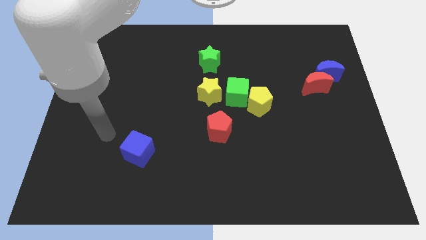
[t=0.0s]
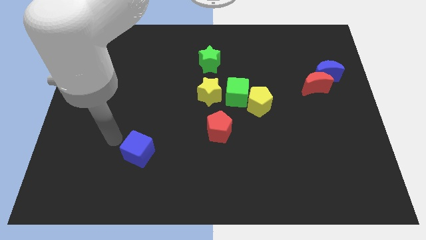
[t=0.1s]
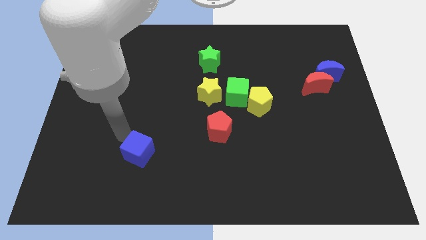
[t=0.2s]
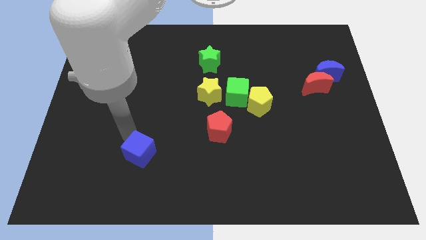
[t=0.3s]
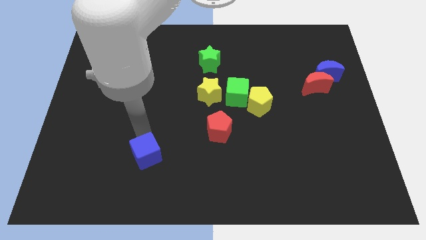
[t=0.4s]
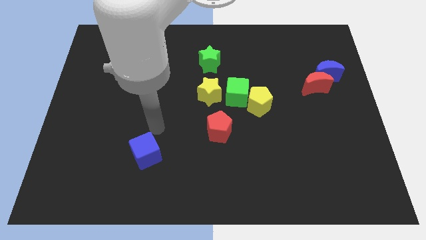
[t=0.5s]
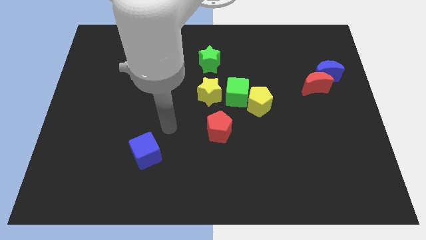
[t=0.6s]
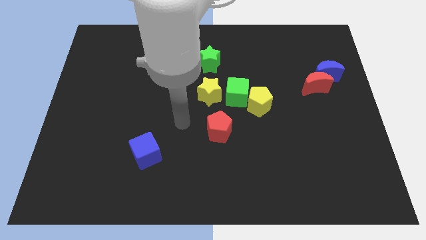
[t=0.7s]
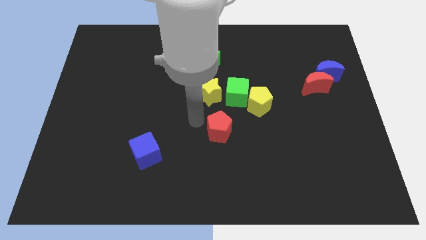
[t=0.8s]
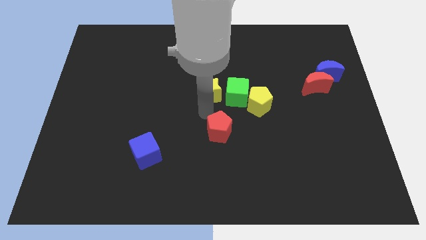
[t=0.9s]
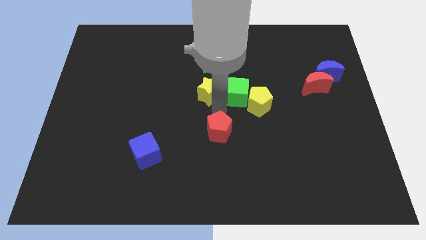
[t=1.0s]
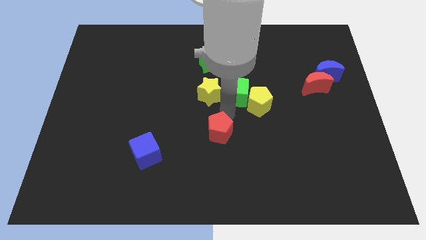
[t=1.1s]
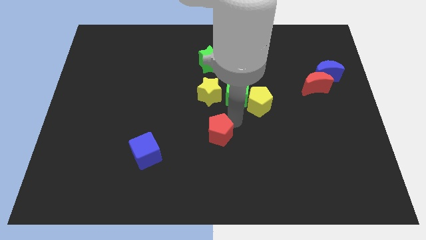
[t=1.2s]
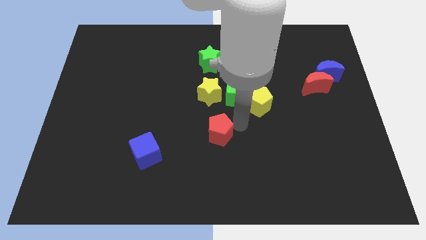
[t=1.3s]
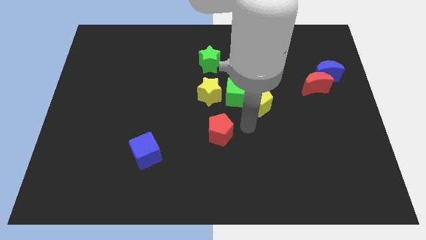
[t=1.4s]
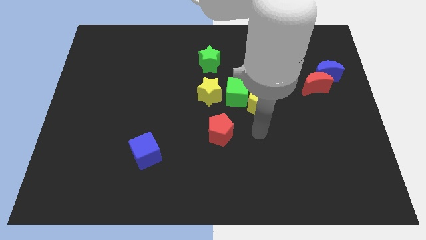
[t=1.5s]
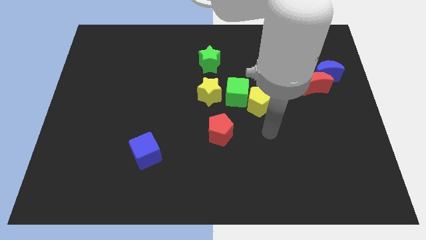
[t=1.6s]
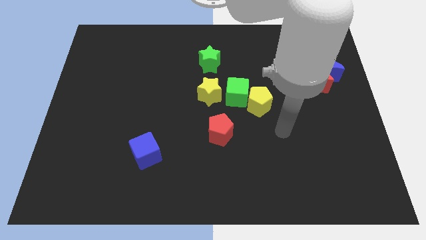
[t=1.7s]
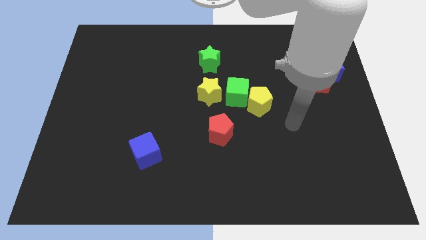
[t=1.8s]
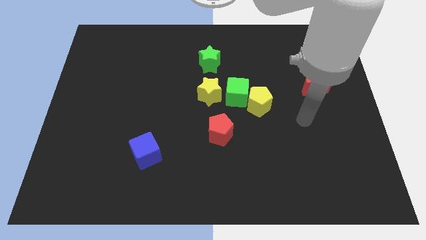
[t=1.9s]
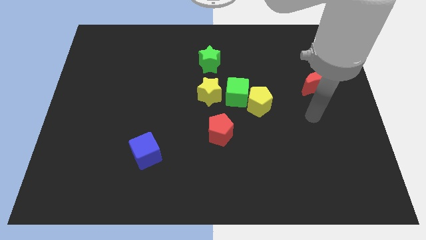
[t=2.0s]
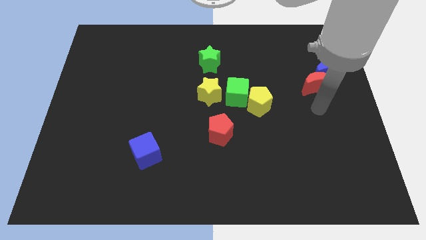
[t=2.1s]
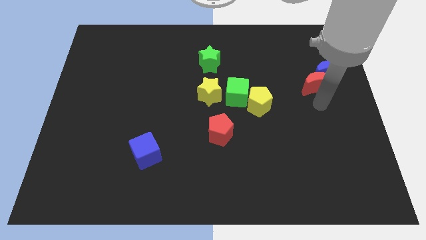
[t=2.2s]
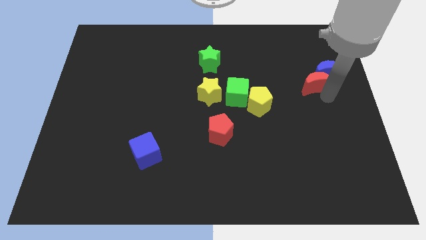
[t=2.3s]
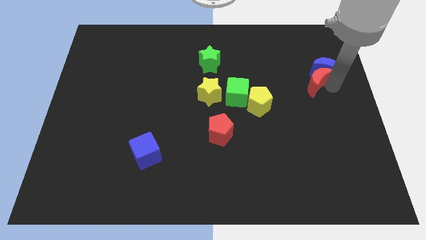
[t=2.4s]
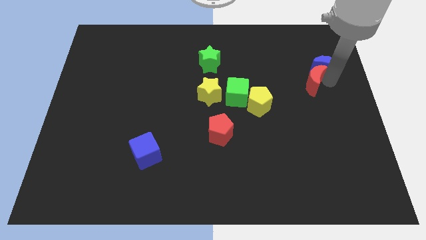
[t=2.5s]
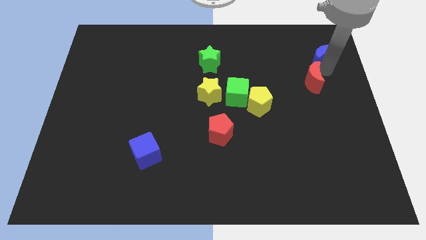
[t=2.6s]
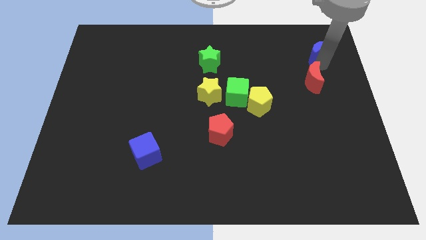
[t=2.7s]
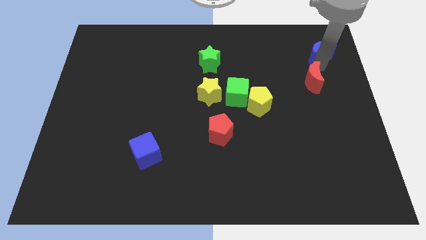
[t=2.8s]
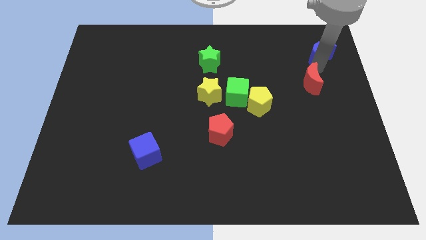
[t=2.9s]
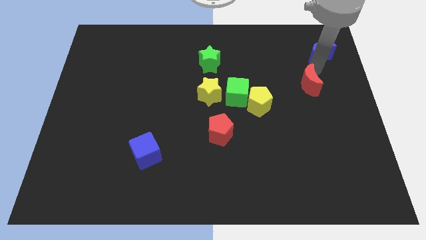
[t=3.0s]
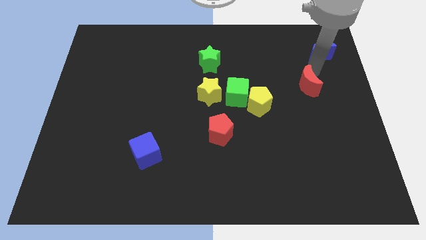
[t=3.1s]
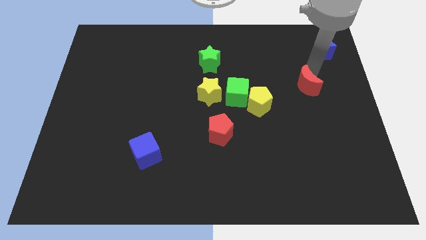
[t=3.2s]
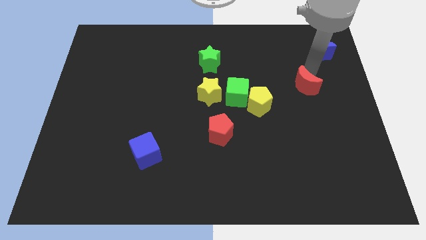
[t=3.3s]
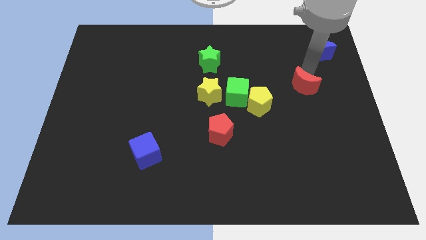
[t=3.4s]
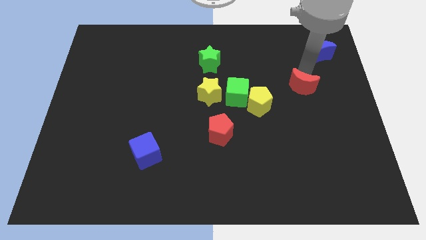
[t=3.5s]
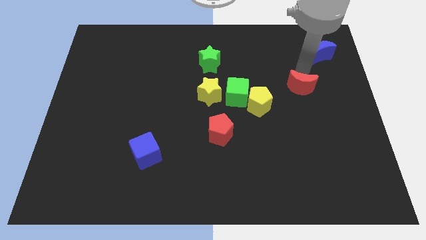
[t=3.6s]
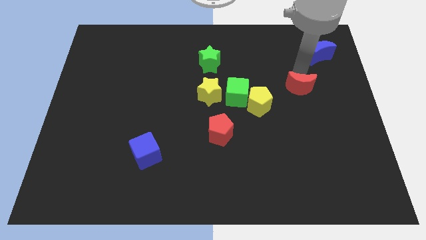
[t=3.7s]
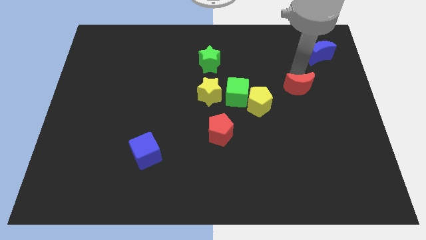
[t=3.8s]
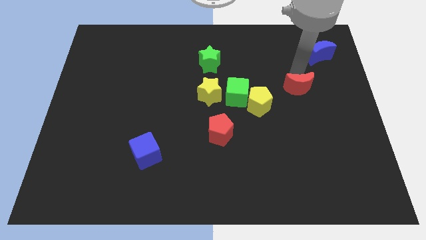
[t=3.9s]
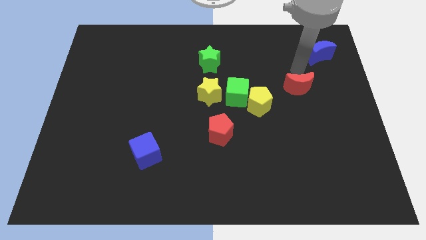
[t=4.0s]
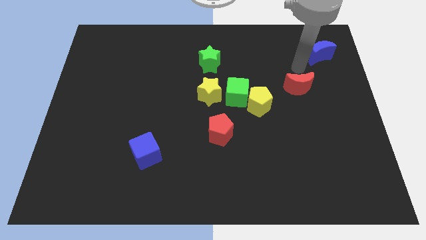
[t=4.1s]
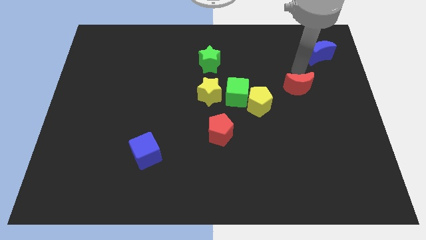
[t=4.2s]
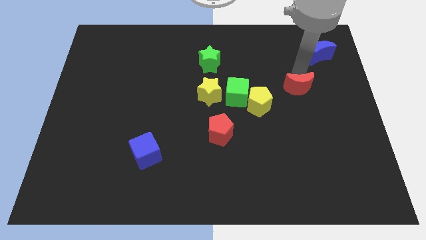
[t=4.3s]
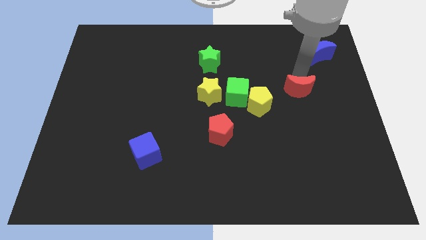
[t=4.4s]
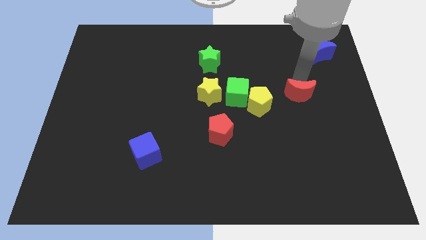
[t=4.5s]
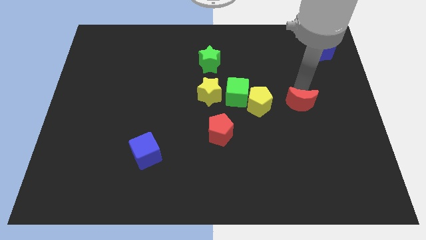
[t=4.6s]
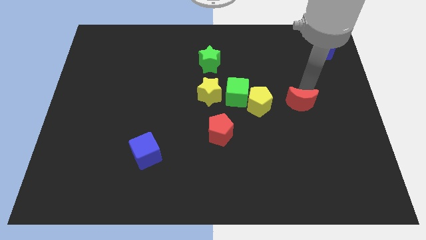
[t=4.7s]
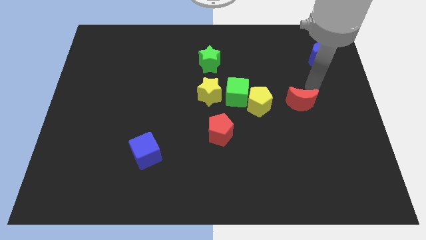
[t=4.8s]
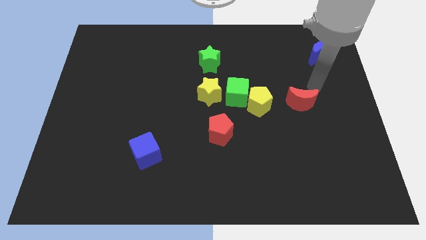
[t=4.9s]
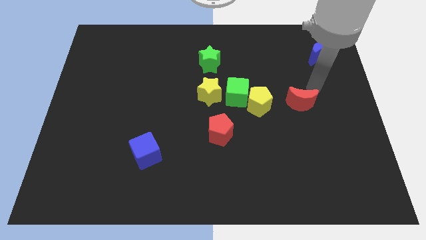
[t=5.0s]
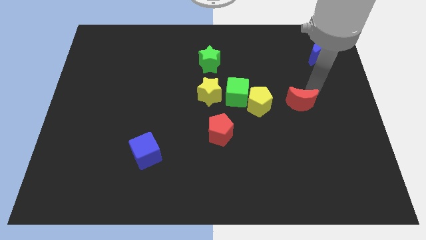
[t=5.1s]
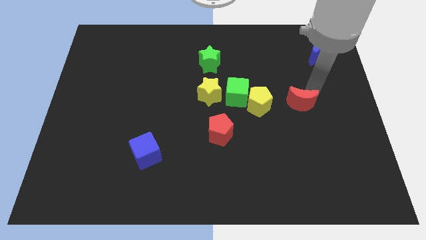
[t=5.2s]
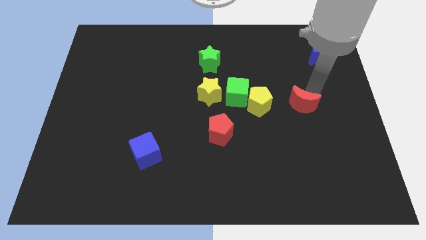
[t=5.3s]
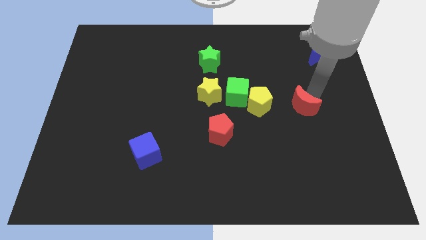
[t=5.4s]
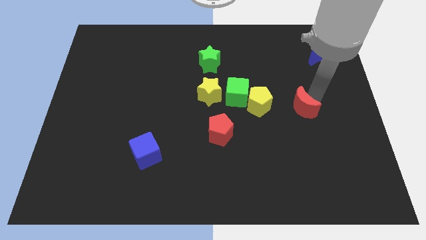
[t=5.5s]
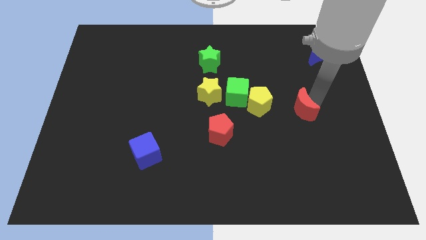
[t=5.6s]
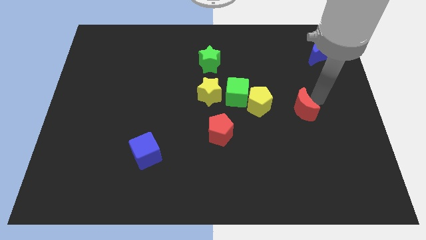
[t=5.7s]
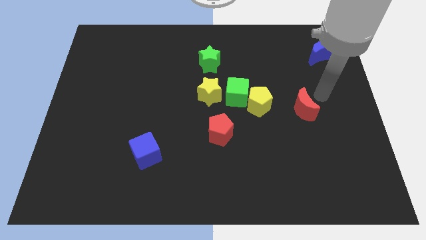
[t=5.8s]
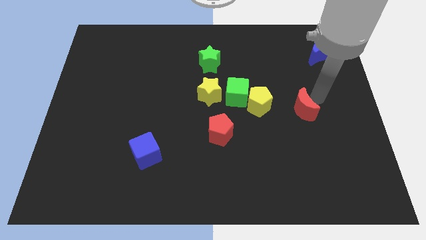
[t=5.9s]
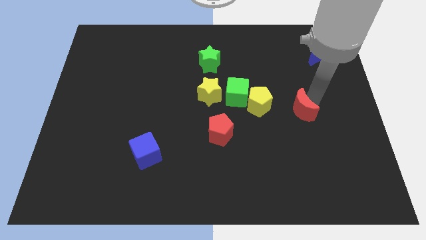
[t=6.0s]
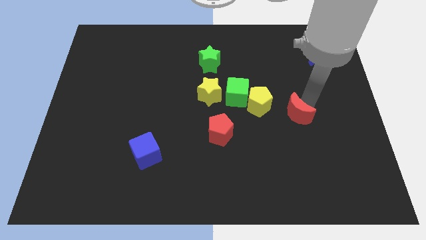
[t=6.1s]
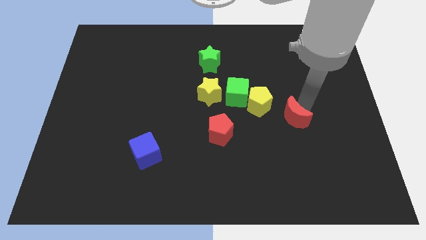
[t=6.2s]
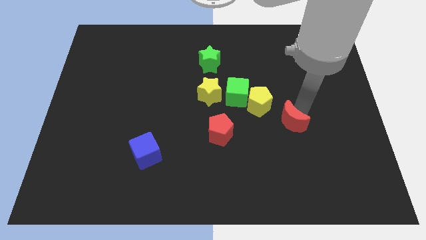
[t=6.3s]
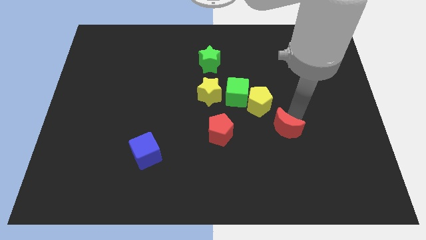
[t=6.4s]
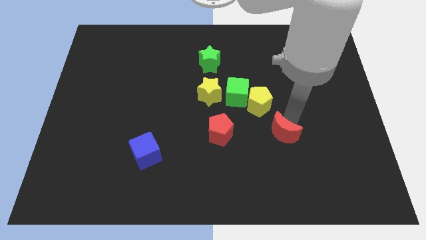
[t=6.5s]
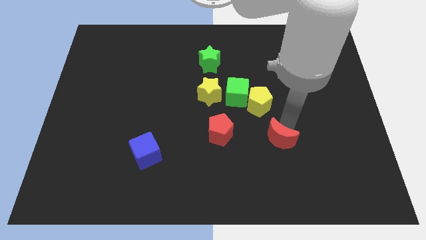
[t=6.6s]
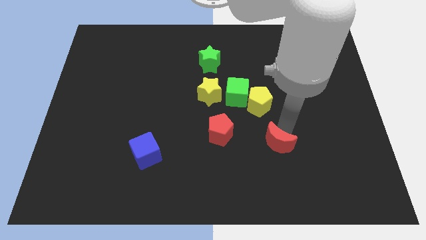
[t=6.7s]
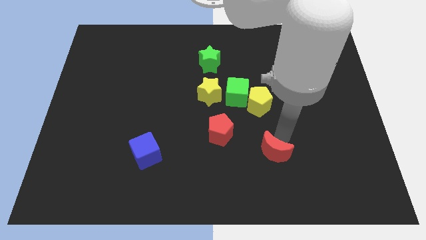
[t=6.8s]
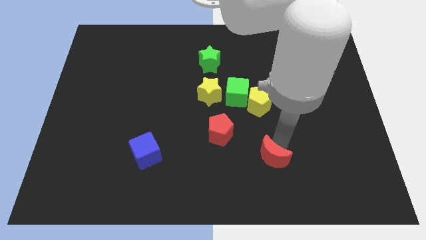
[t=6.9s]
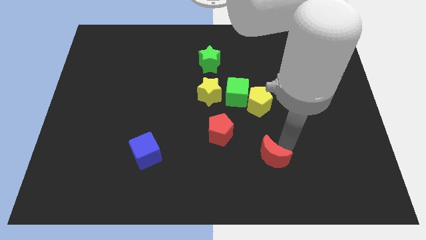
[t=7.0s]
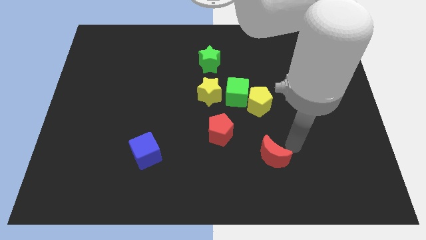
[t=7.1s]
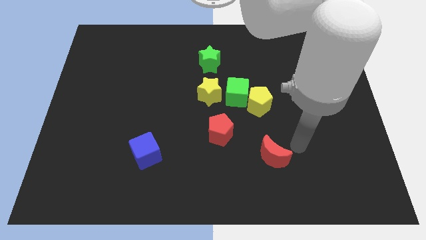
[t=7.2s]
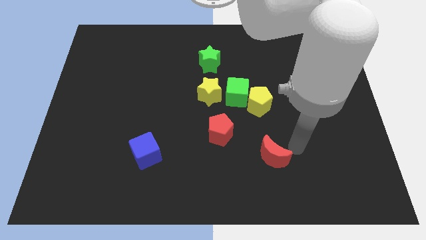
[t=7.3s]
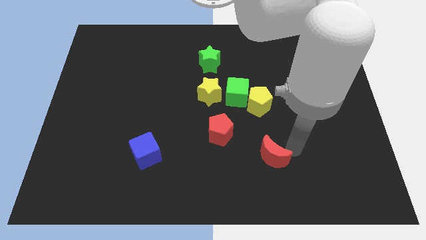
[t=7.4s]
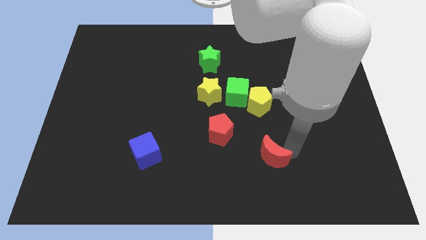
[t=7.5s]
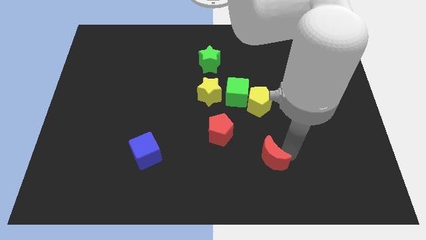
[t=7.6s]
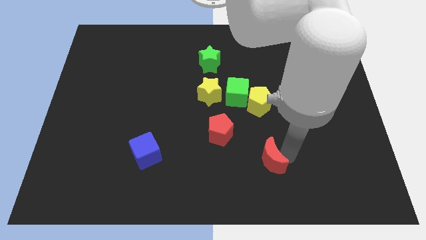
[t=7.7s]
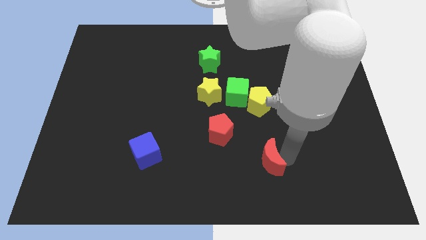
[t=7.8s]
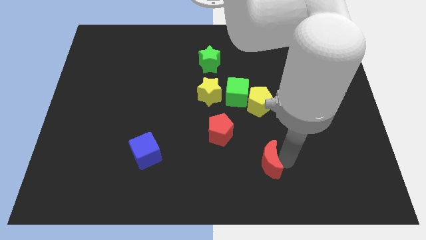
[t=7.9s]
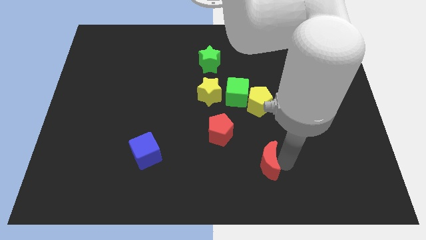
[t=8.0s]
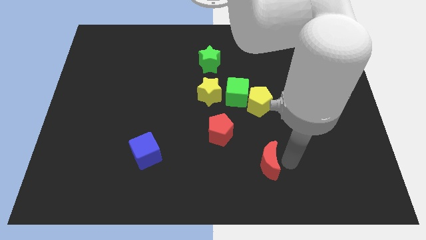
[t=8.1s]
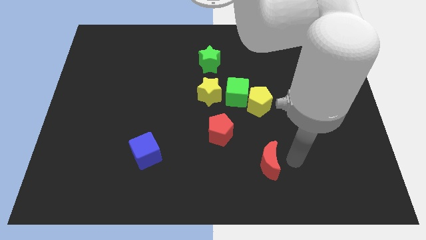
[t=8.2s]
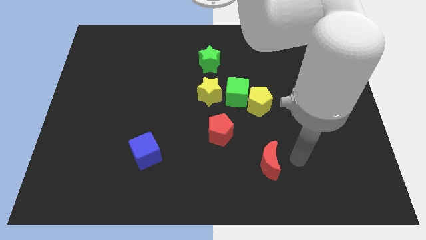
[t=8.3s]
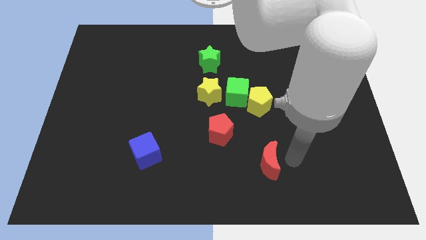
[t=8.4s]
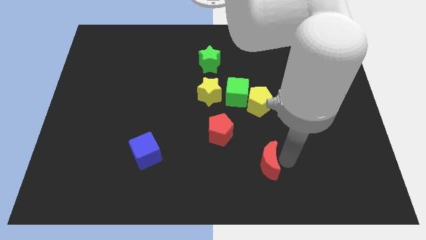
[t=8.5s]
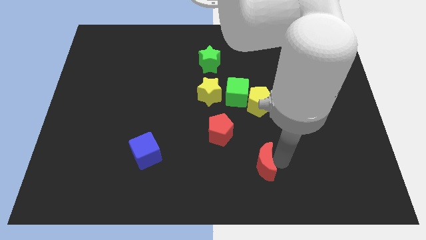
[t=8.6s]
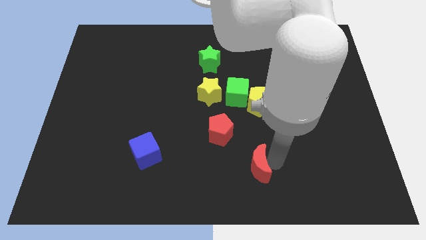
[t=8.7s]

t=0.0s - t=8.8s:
move the red moon to the bottom side
